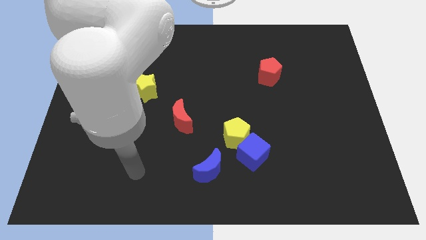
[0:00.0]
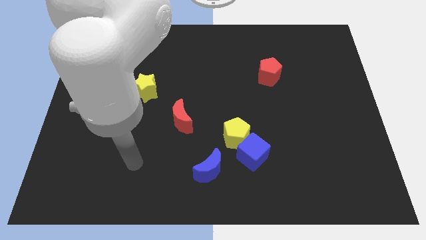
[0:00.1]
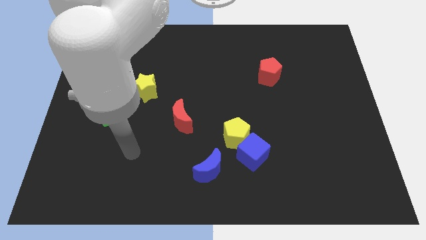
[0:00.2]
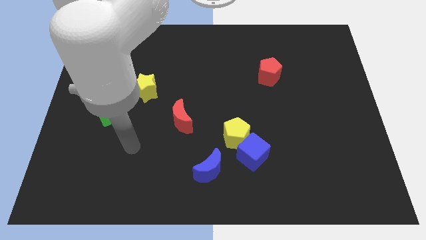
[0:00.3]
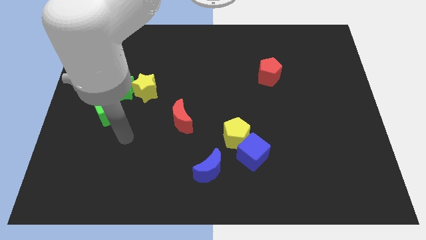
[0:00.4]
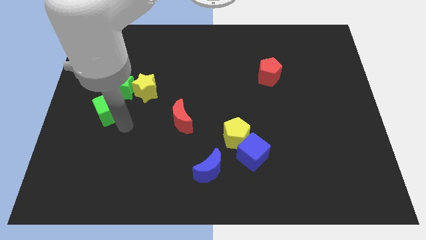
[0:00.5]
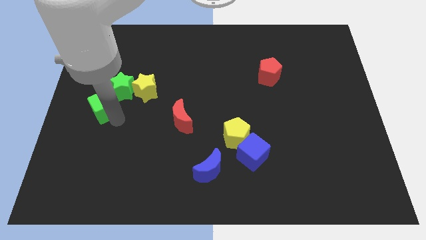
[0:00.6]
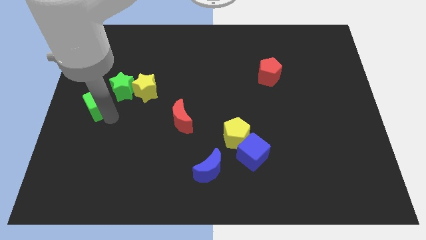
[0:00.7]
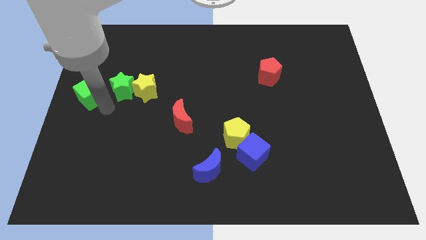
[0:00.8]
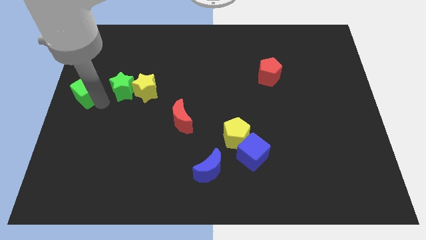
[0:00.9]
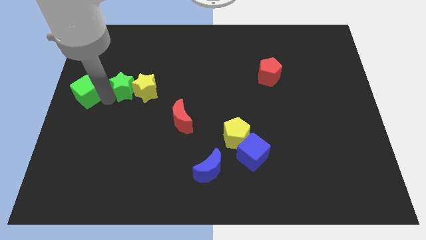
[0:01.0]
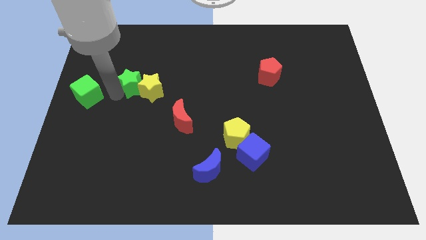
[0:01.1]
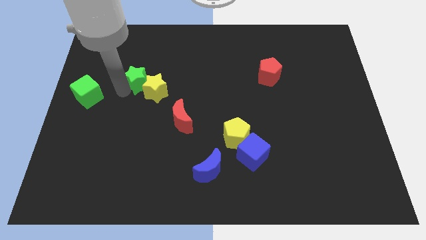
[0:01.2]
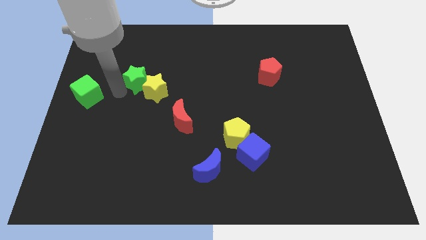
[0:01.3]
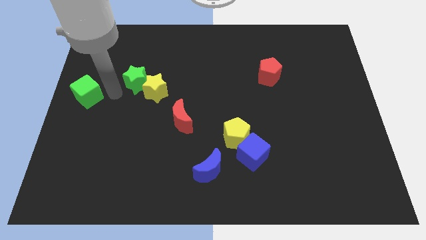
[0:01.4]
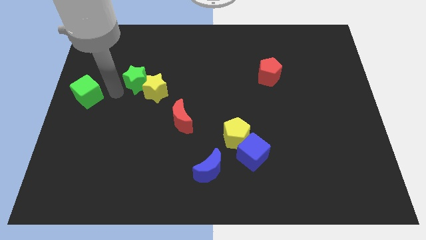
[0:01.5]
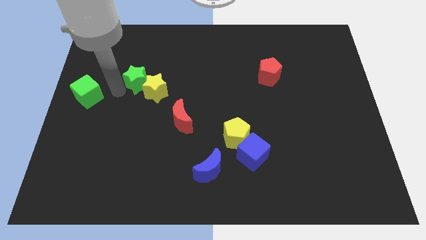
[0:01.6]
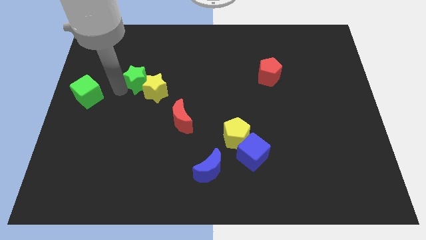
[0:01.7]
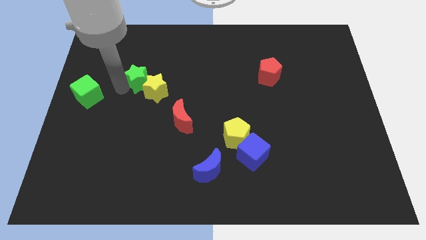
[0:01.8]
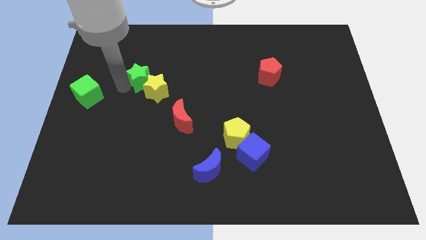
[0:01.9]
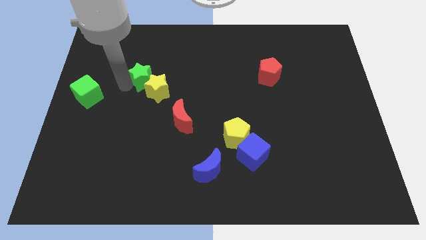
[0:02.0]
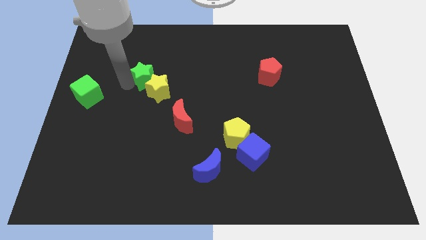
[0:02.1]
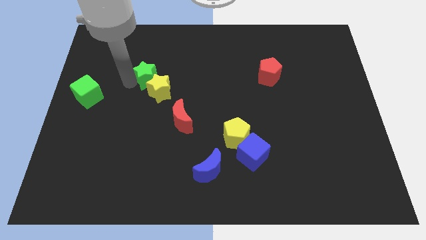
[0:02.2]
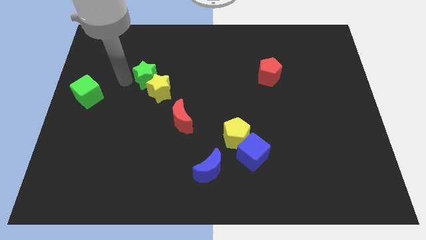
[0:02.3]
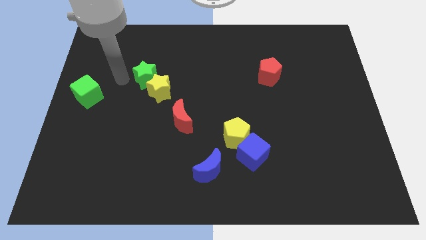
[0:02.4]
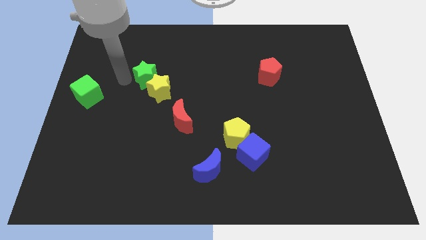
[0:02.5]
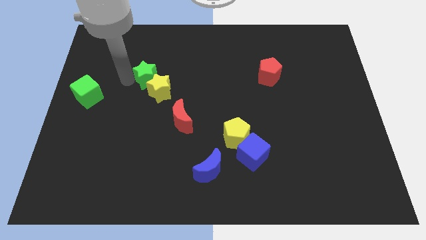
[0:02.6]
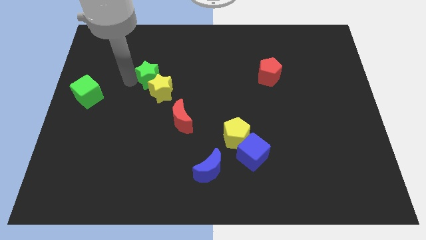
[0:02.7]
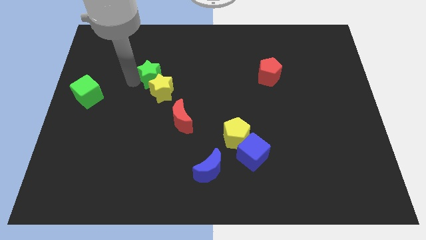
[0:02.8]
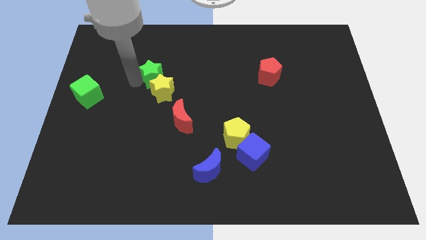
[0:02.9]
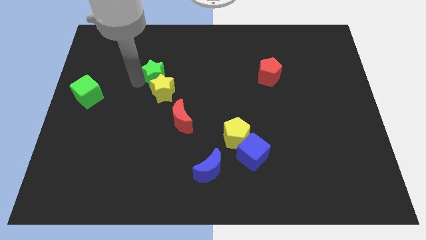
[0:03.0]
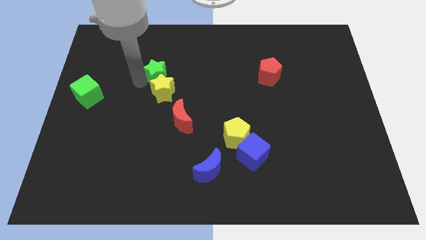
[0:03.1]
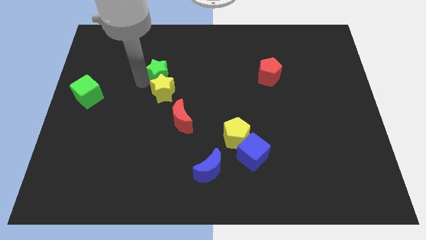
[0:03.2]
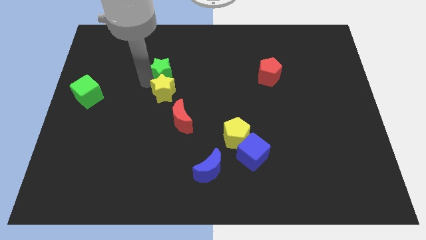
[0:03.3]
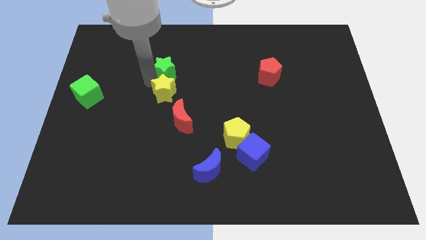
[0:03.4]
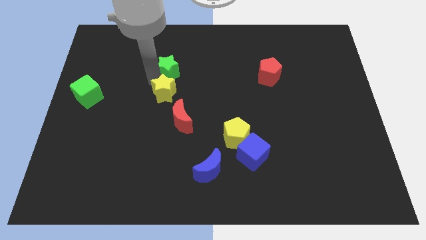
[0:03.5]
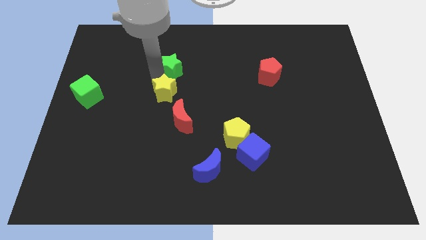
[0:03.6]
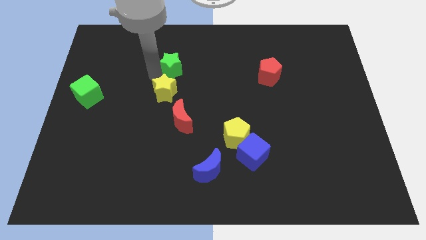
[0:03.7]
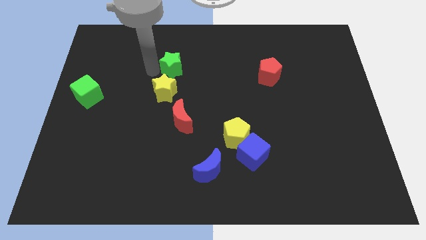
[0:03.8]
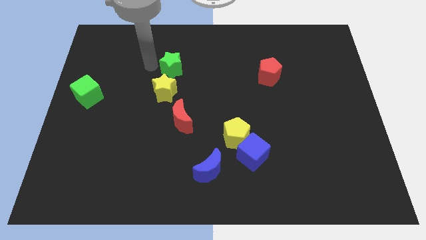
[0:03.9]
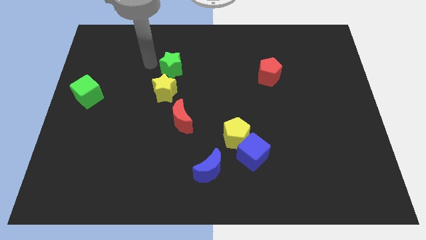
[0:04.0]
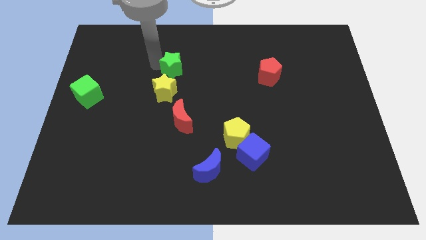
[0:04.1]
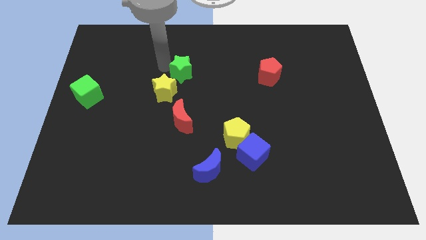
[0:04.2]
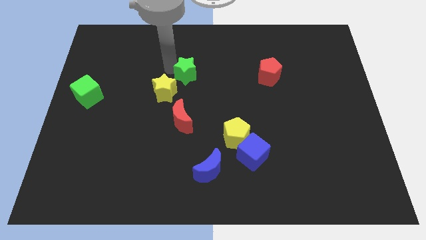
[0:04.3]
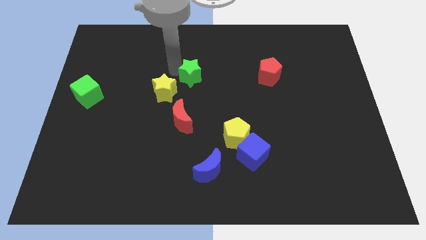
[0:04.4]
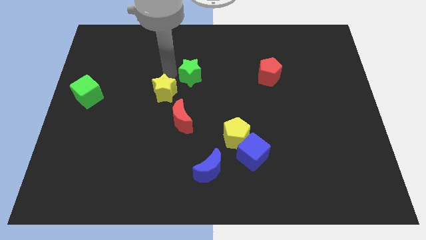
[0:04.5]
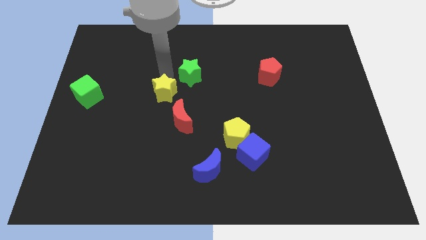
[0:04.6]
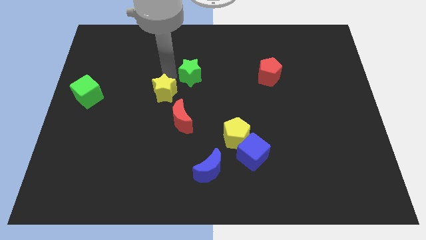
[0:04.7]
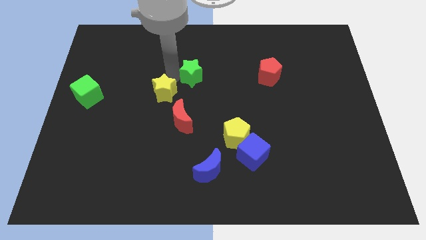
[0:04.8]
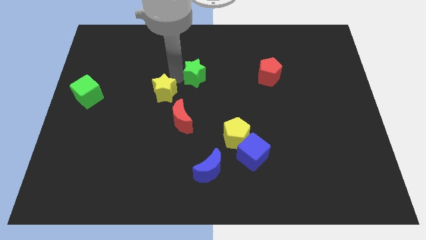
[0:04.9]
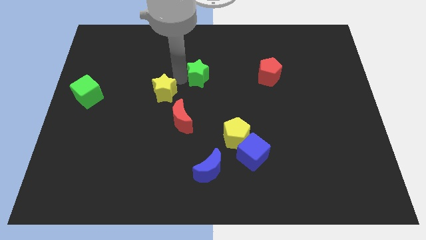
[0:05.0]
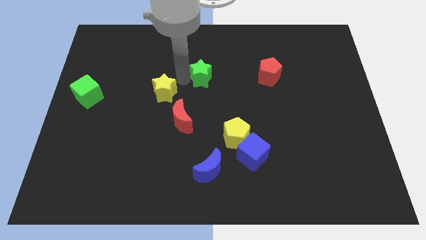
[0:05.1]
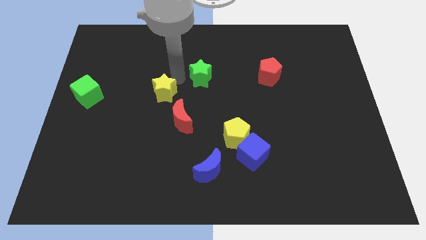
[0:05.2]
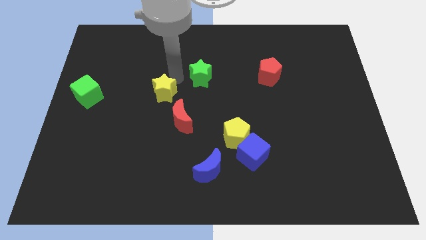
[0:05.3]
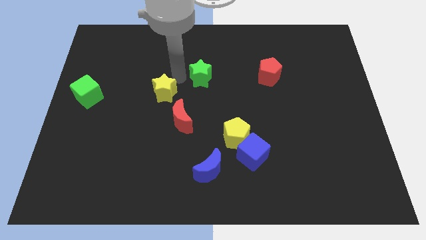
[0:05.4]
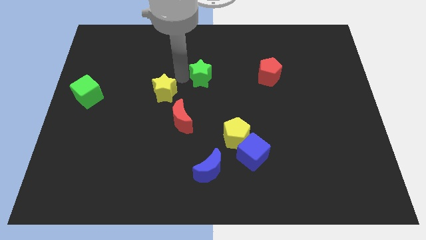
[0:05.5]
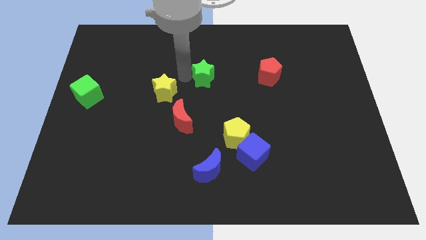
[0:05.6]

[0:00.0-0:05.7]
move the green star to the left of the red pentagon

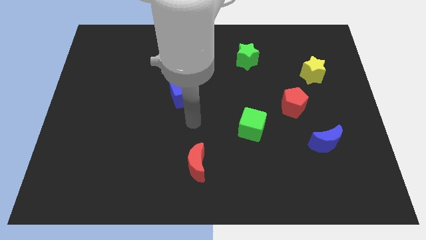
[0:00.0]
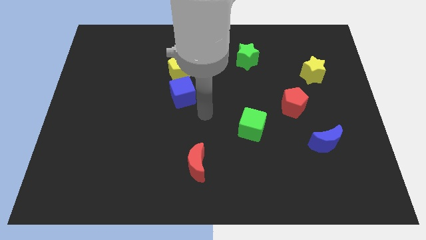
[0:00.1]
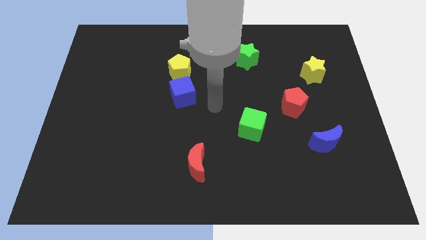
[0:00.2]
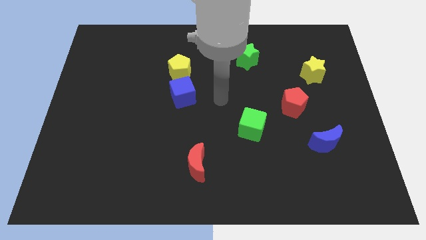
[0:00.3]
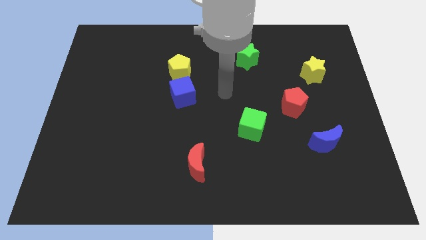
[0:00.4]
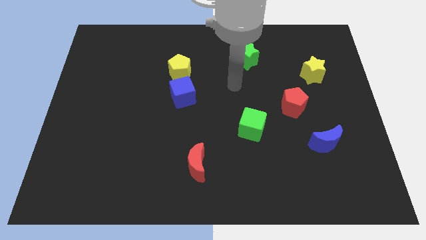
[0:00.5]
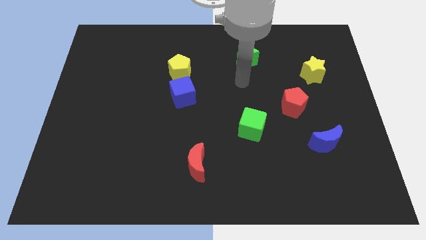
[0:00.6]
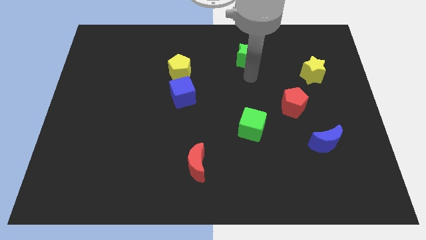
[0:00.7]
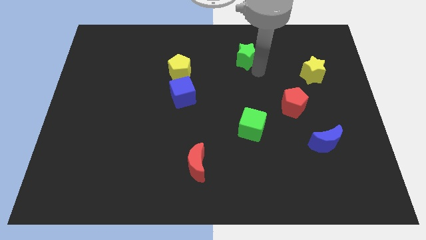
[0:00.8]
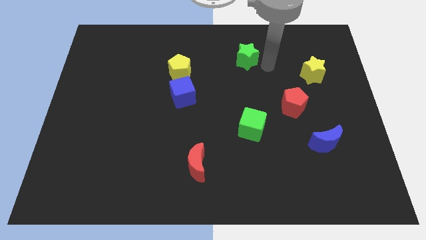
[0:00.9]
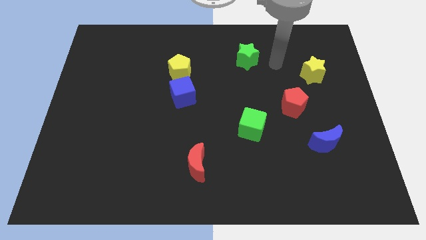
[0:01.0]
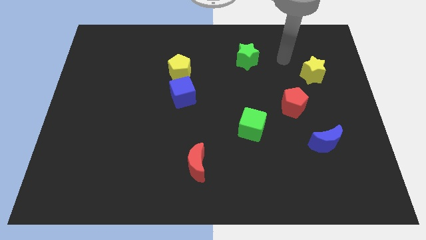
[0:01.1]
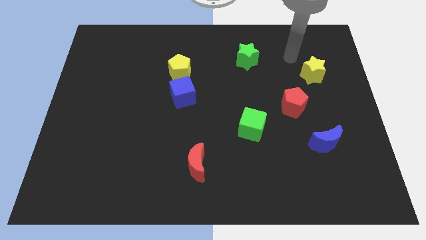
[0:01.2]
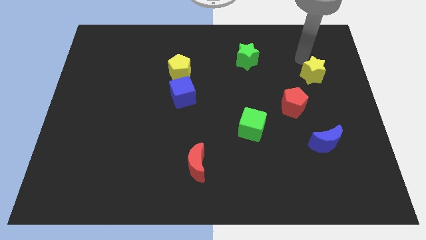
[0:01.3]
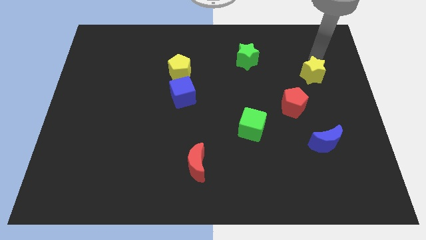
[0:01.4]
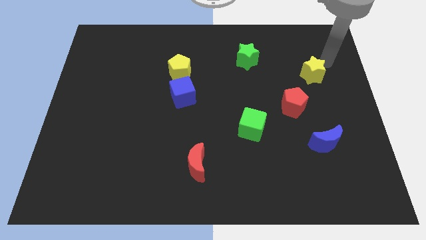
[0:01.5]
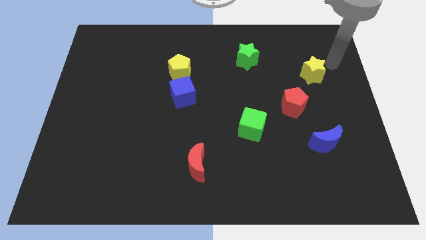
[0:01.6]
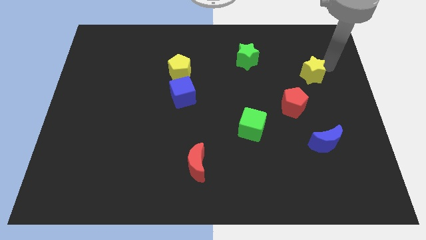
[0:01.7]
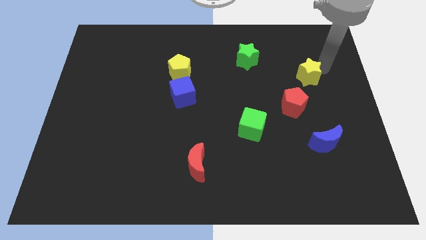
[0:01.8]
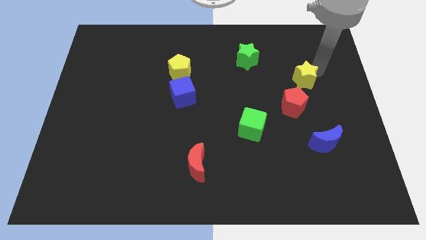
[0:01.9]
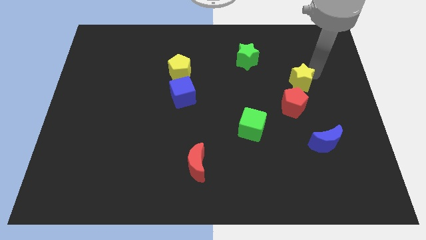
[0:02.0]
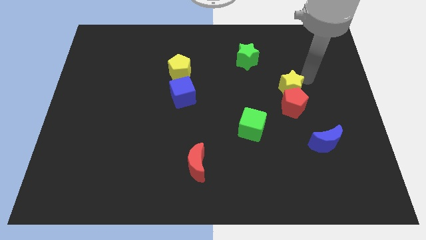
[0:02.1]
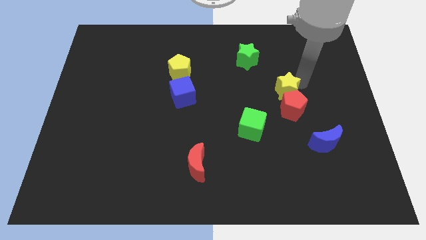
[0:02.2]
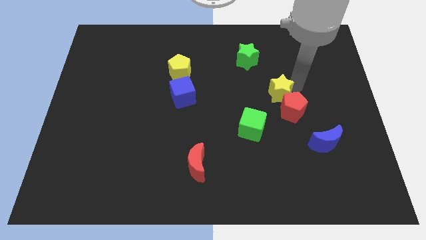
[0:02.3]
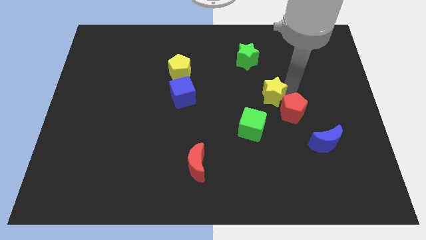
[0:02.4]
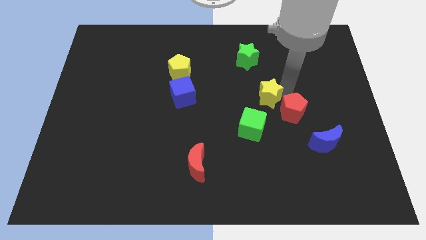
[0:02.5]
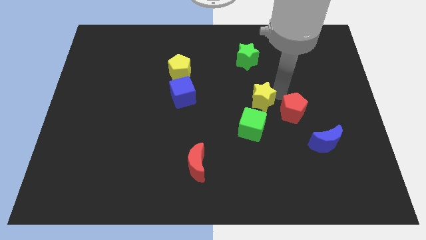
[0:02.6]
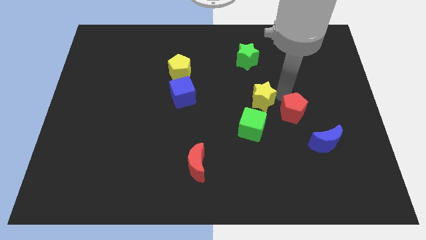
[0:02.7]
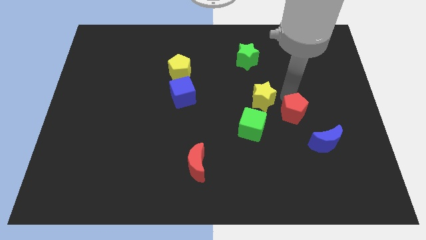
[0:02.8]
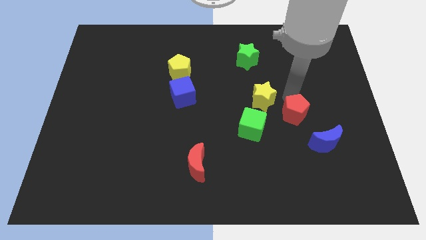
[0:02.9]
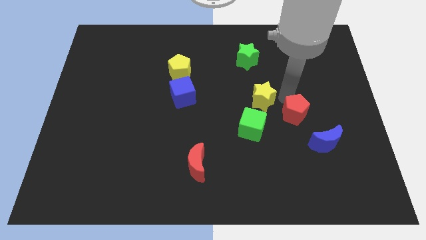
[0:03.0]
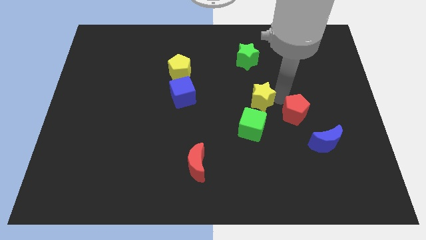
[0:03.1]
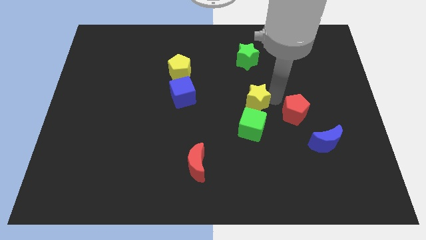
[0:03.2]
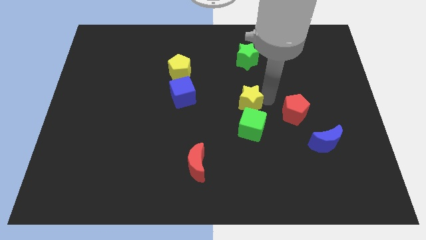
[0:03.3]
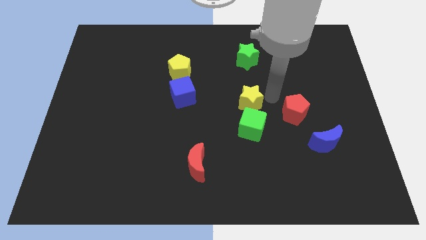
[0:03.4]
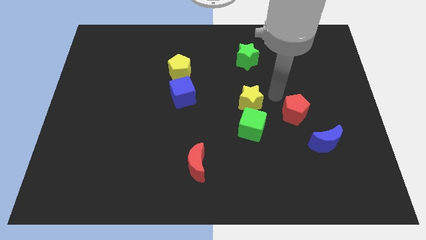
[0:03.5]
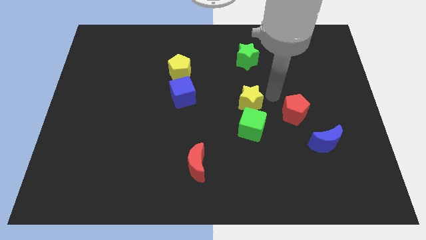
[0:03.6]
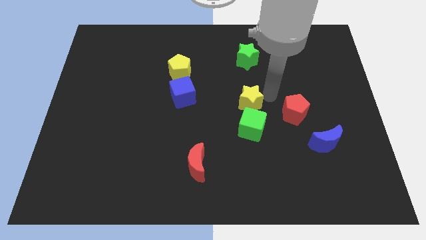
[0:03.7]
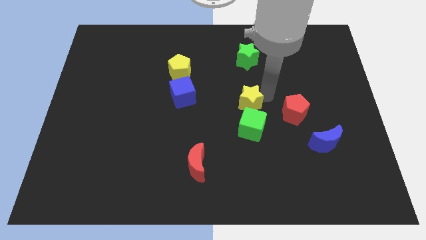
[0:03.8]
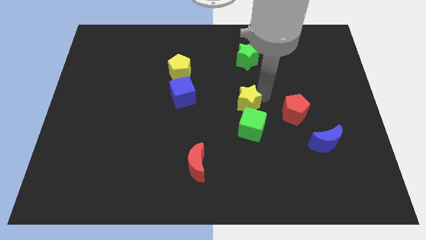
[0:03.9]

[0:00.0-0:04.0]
move the yellow star to the top left of the green cube
